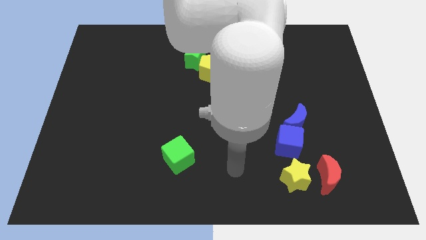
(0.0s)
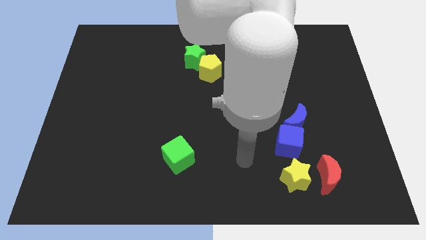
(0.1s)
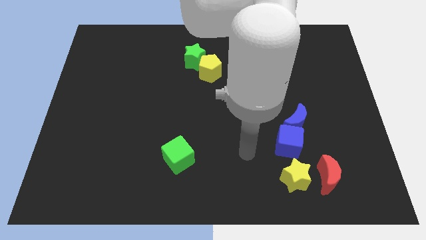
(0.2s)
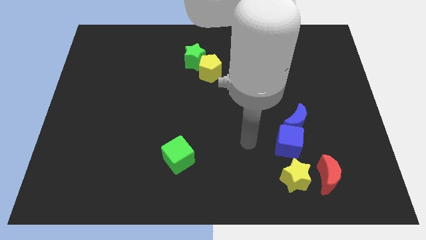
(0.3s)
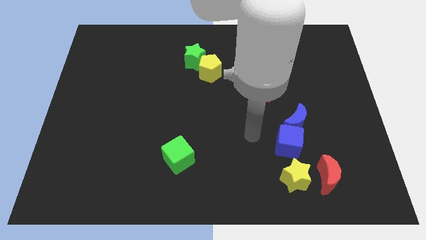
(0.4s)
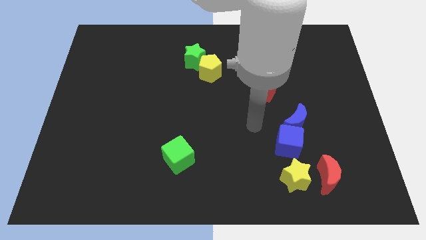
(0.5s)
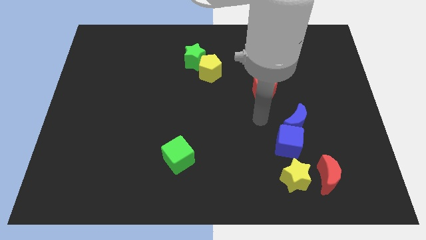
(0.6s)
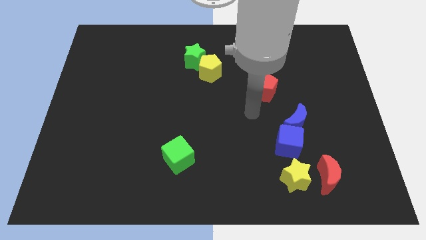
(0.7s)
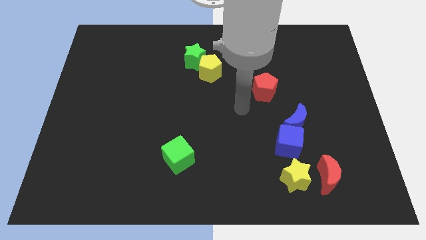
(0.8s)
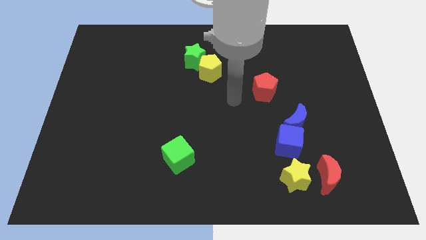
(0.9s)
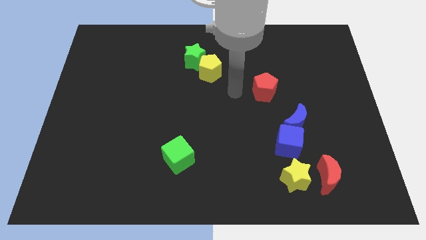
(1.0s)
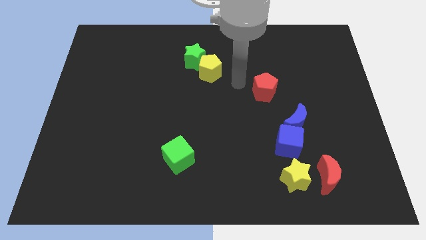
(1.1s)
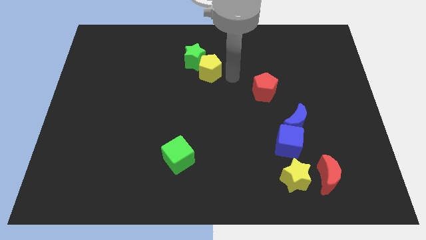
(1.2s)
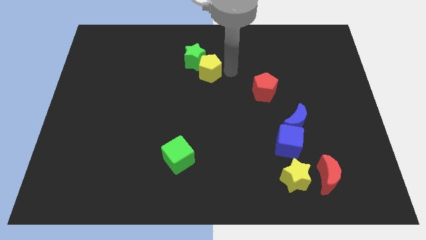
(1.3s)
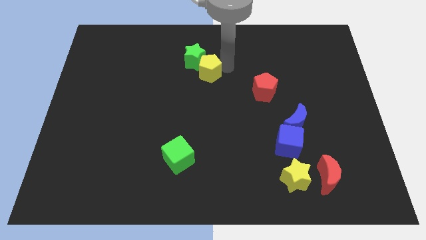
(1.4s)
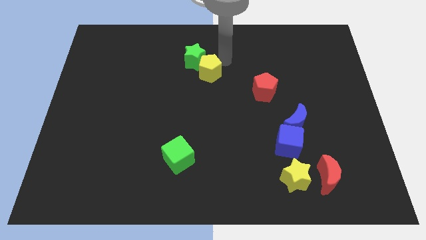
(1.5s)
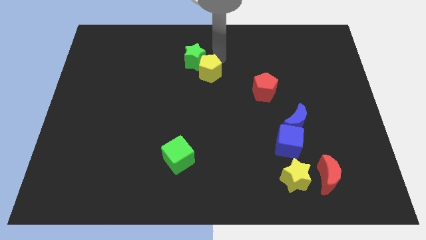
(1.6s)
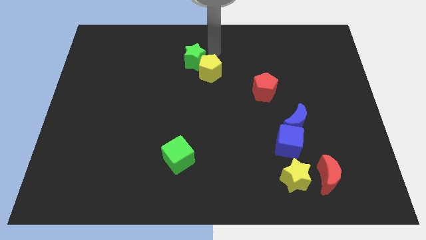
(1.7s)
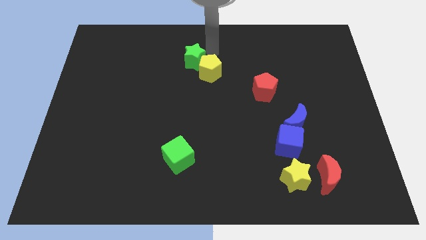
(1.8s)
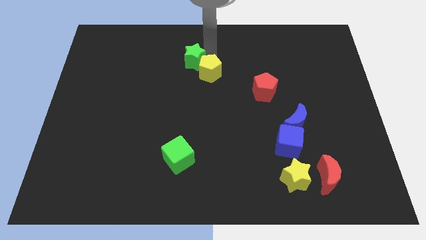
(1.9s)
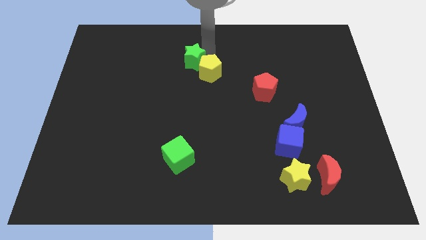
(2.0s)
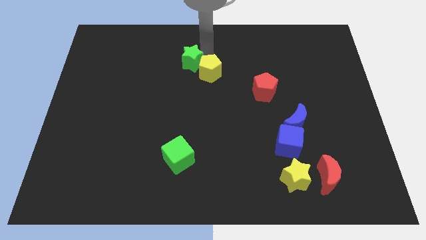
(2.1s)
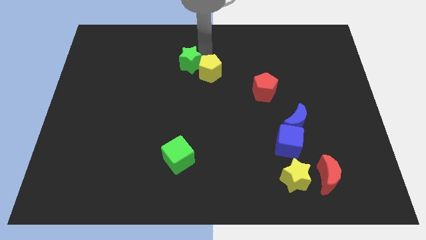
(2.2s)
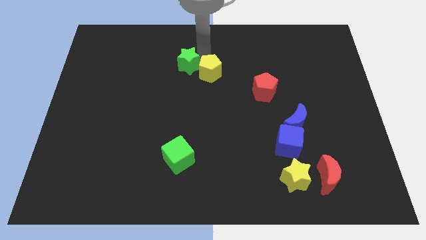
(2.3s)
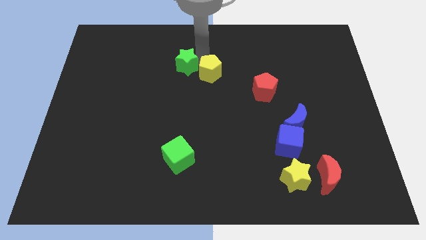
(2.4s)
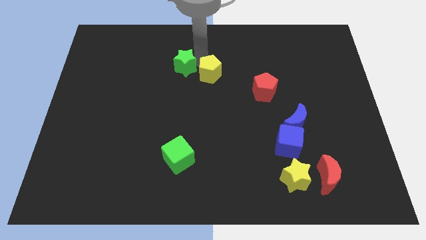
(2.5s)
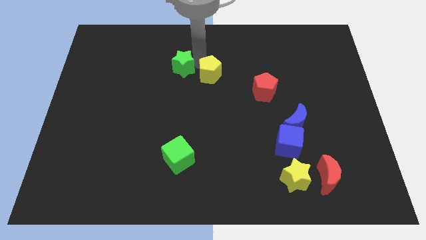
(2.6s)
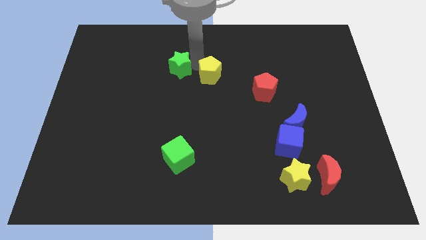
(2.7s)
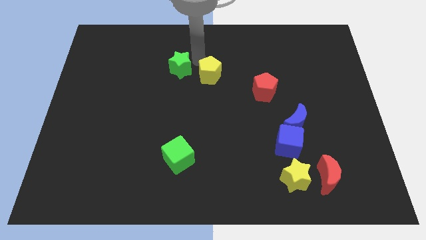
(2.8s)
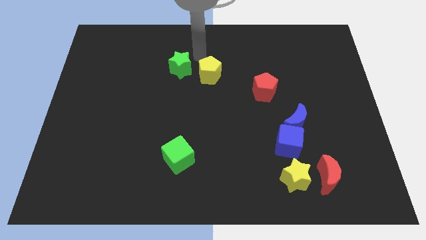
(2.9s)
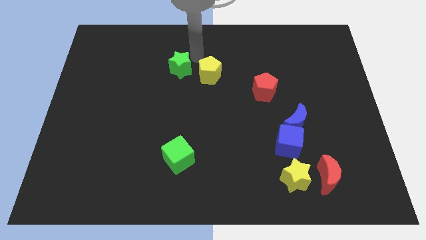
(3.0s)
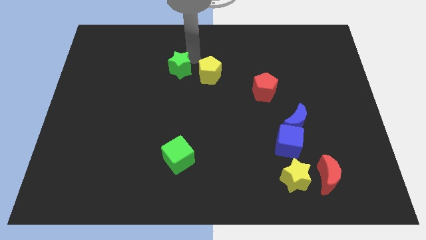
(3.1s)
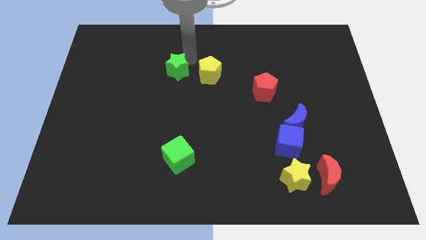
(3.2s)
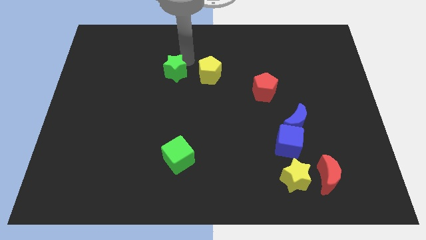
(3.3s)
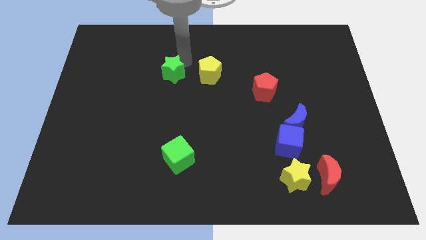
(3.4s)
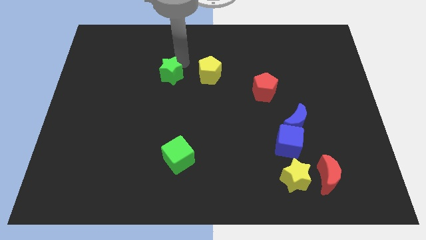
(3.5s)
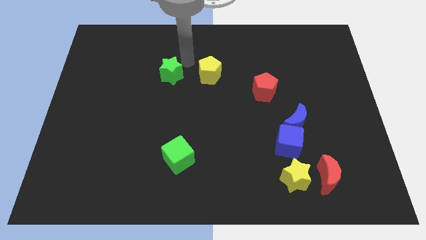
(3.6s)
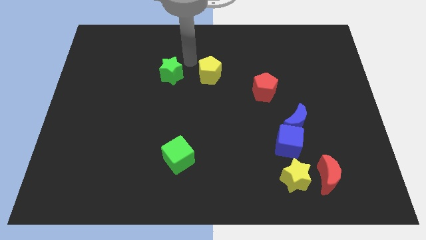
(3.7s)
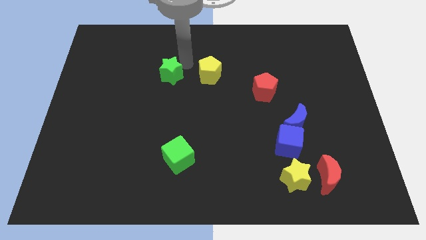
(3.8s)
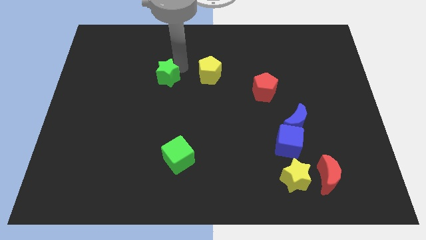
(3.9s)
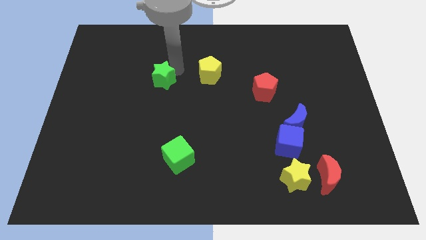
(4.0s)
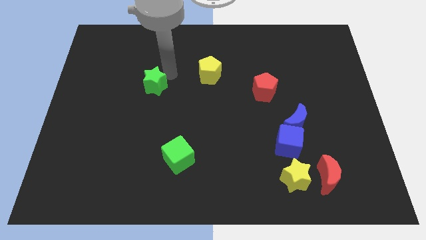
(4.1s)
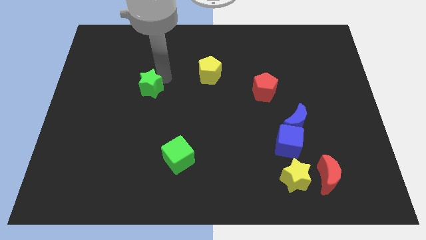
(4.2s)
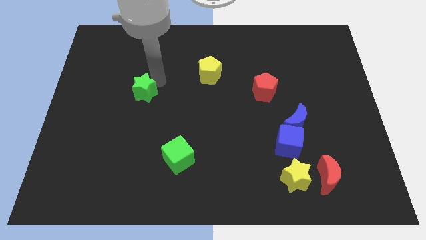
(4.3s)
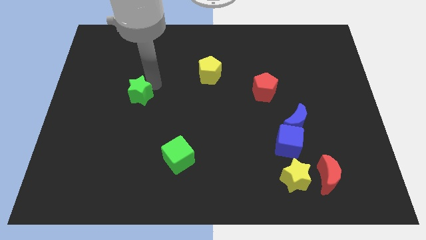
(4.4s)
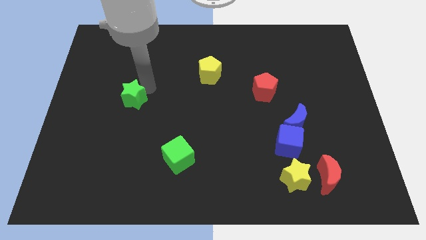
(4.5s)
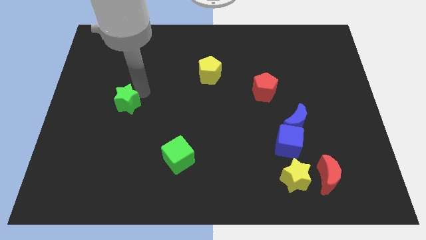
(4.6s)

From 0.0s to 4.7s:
slide the green star down and to the left

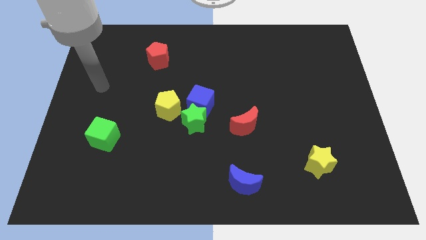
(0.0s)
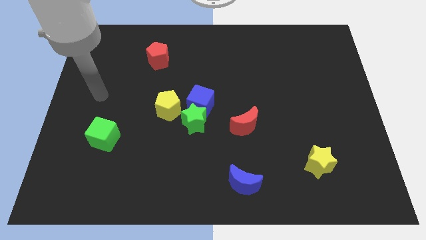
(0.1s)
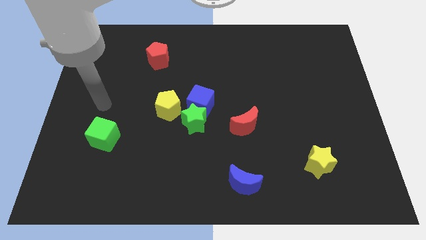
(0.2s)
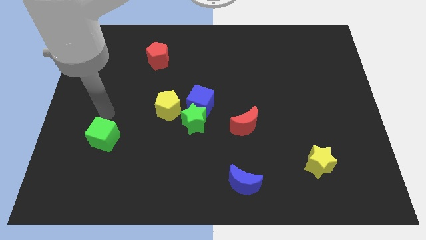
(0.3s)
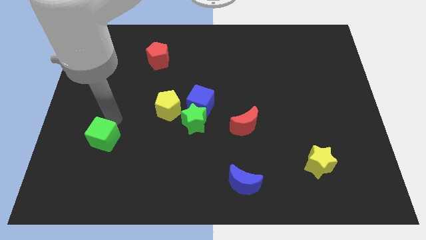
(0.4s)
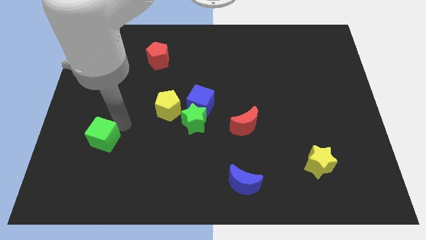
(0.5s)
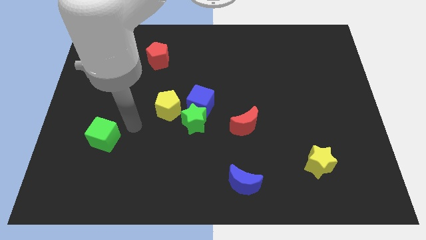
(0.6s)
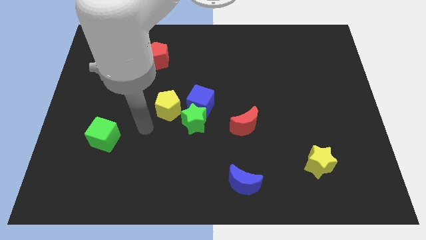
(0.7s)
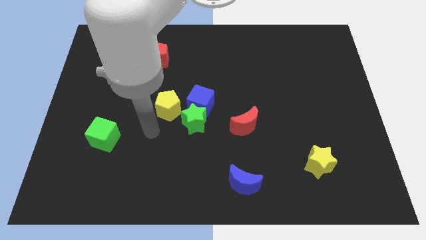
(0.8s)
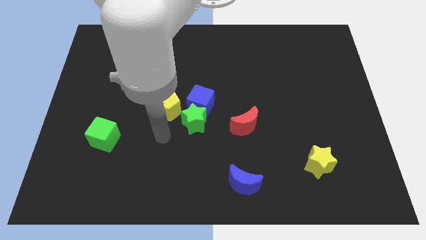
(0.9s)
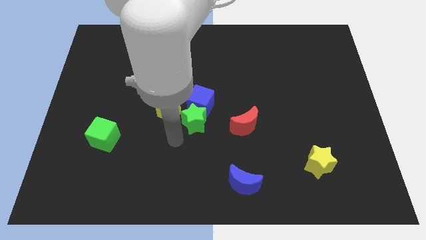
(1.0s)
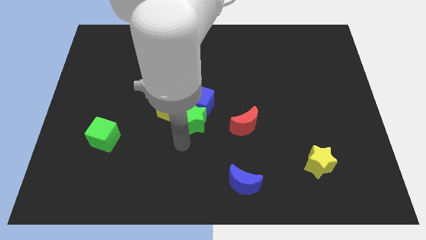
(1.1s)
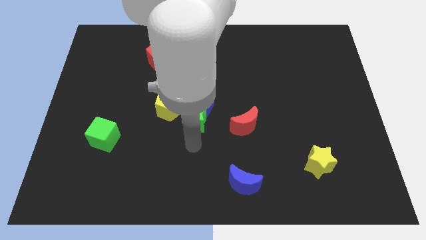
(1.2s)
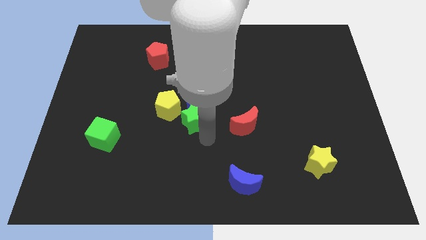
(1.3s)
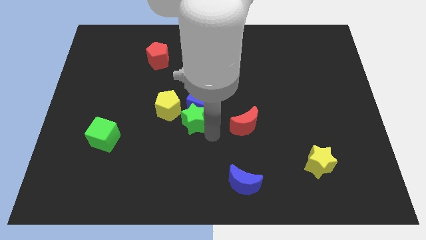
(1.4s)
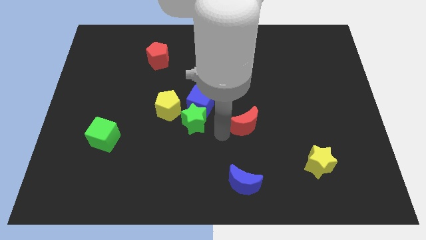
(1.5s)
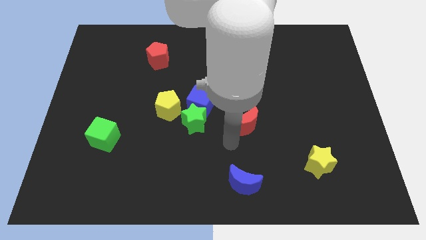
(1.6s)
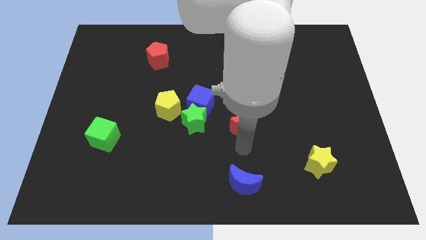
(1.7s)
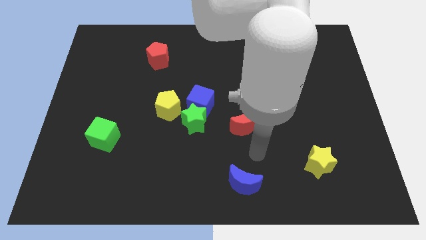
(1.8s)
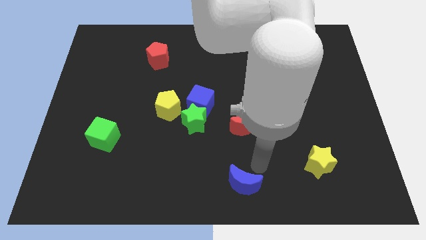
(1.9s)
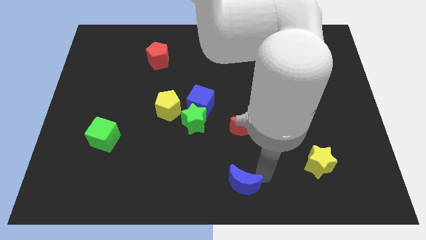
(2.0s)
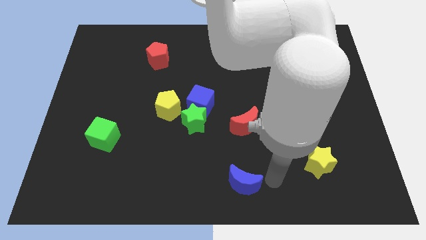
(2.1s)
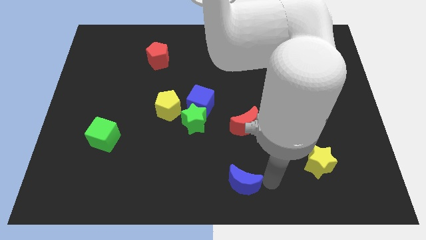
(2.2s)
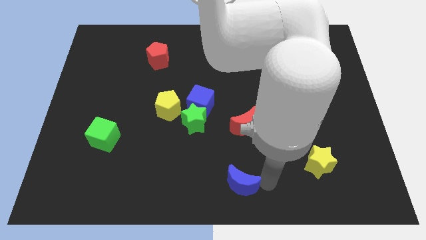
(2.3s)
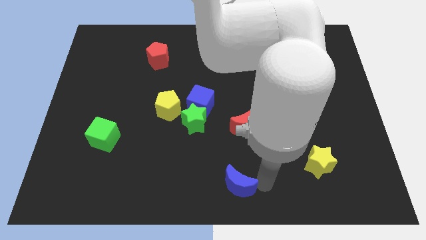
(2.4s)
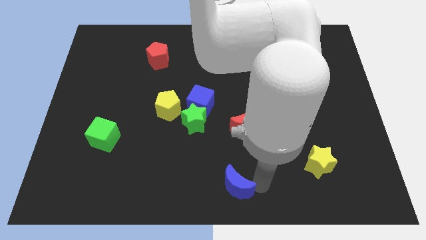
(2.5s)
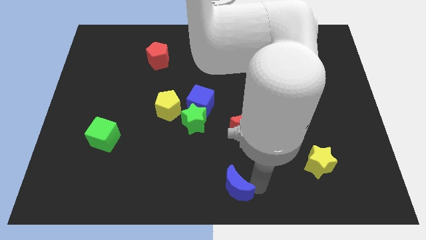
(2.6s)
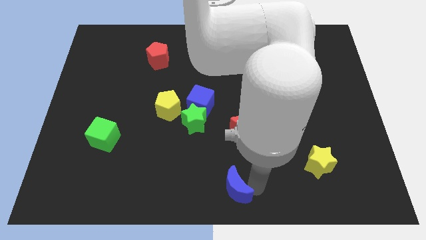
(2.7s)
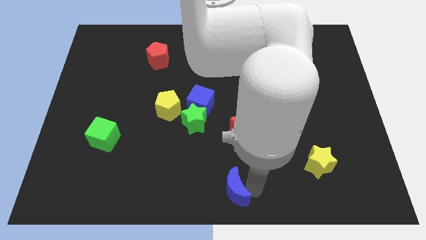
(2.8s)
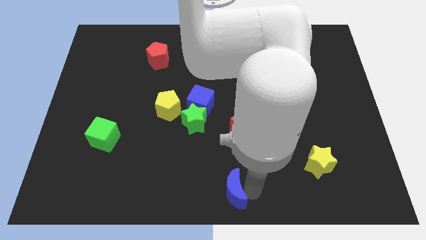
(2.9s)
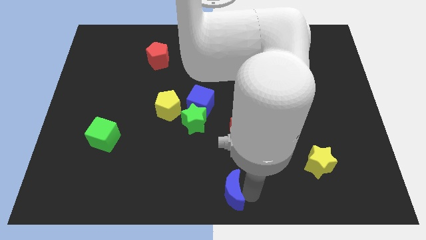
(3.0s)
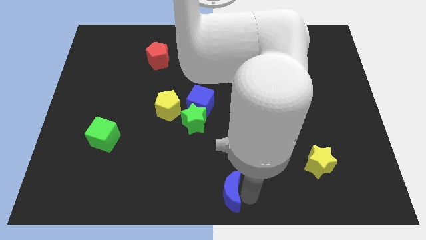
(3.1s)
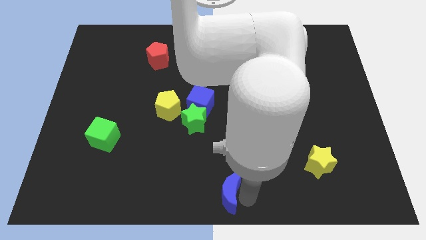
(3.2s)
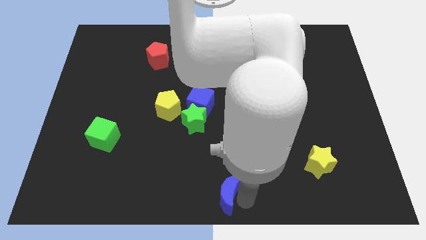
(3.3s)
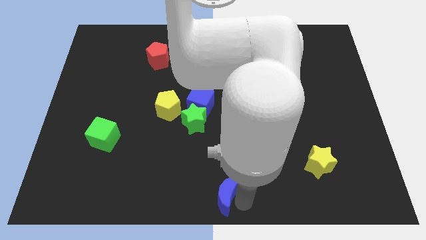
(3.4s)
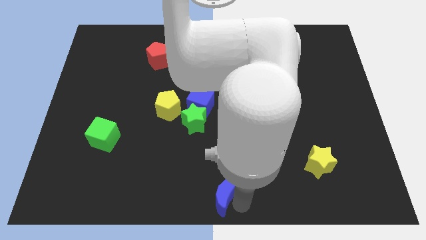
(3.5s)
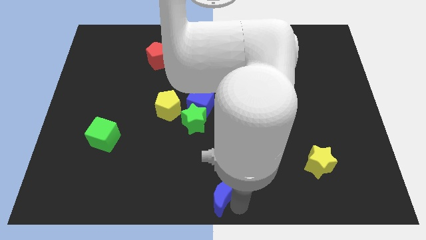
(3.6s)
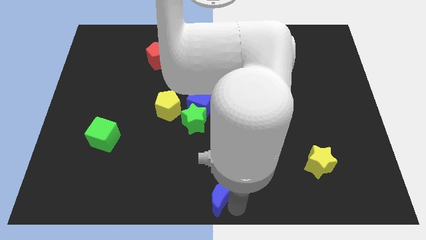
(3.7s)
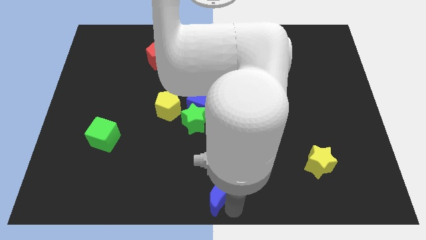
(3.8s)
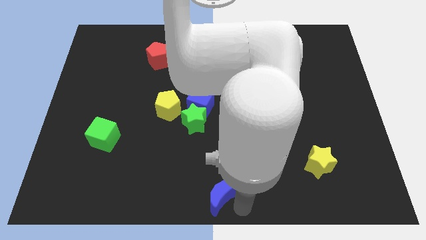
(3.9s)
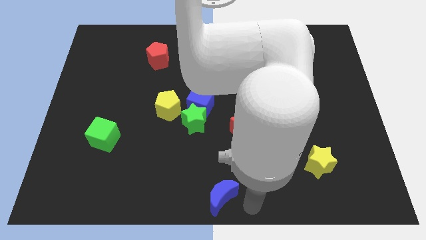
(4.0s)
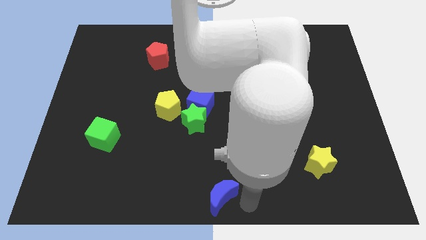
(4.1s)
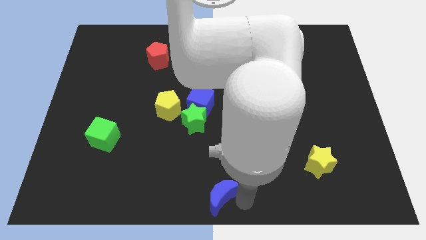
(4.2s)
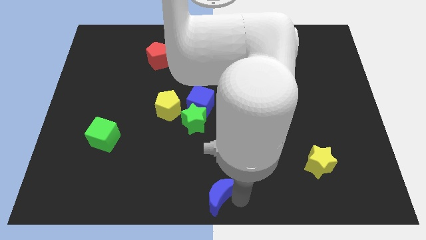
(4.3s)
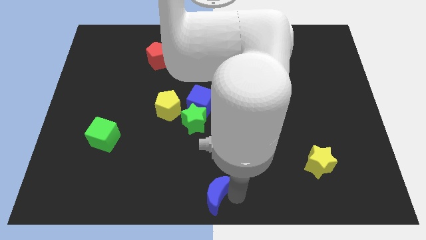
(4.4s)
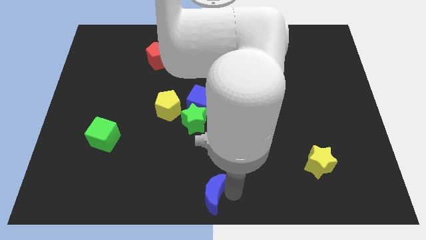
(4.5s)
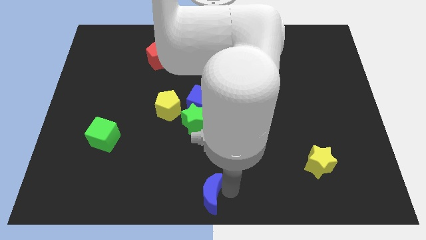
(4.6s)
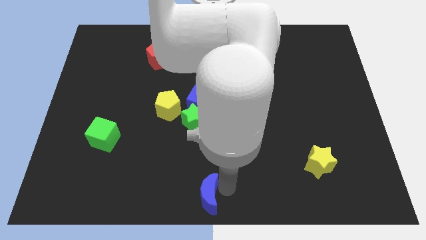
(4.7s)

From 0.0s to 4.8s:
move the blue moon slightly to the left
